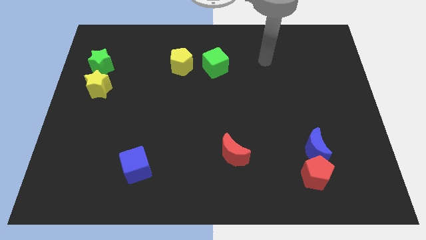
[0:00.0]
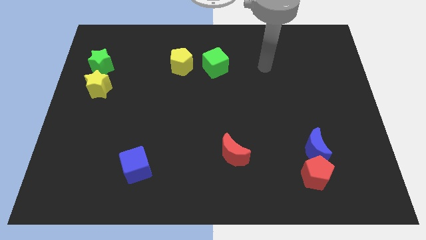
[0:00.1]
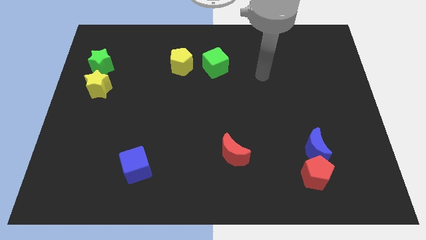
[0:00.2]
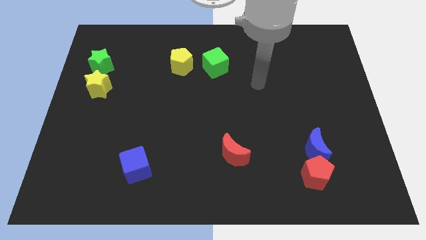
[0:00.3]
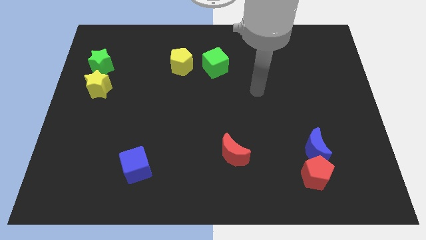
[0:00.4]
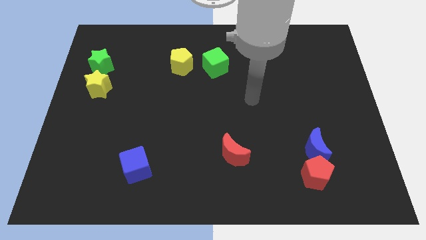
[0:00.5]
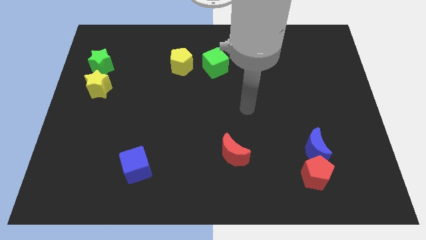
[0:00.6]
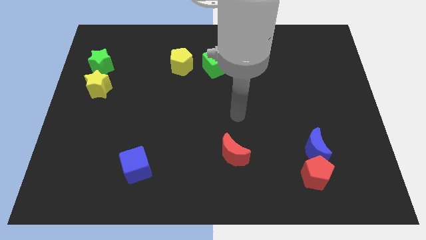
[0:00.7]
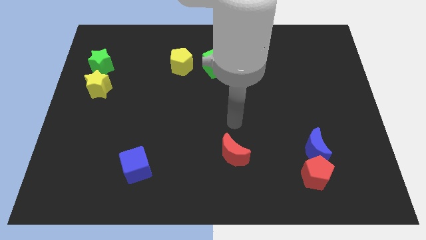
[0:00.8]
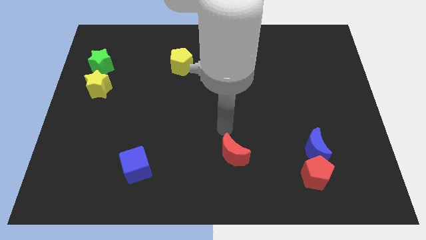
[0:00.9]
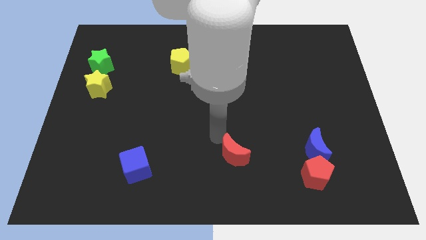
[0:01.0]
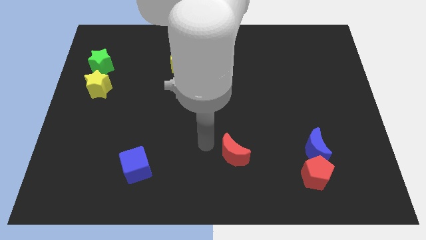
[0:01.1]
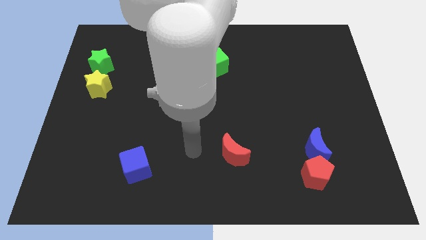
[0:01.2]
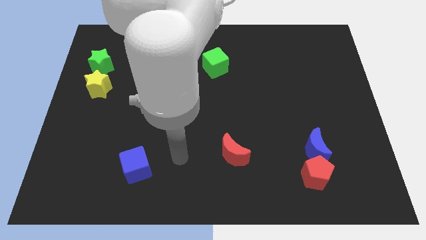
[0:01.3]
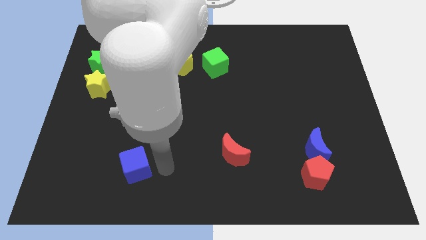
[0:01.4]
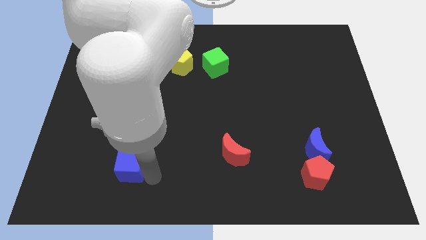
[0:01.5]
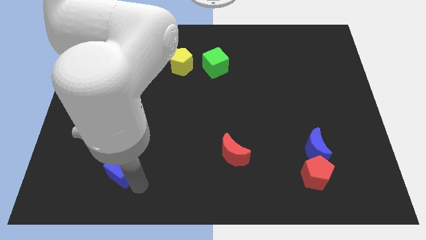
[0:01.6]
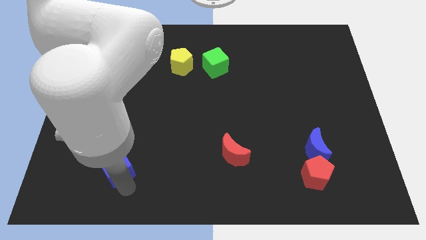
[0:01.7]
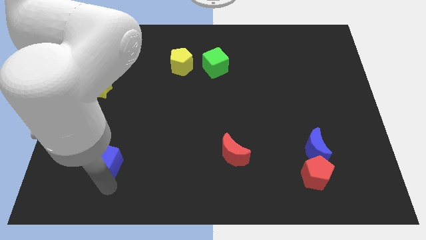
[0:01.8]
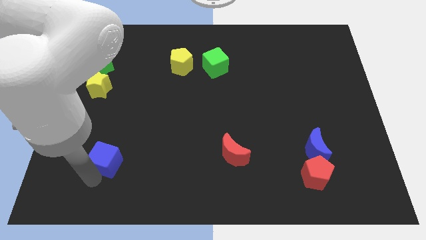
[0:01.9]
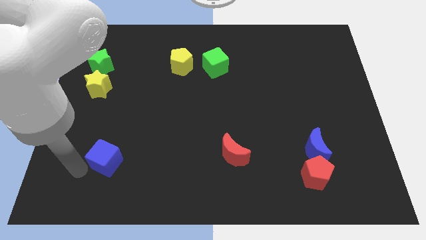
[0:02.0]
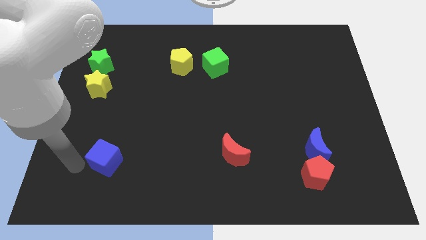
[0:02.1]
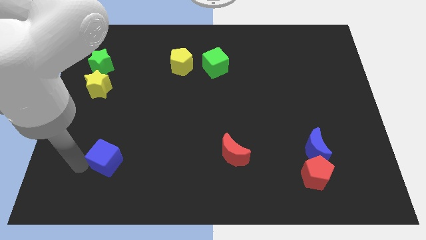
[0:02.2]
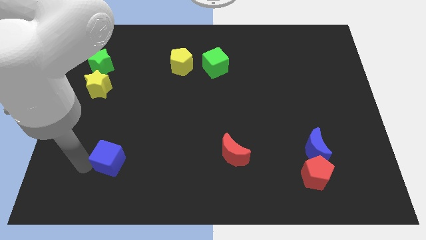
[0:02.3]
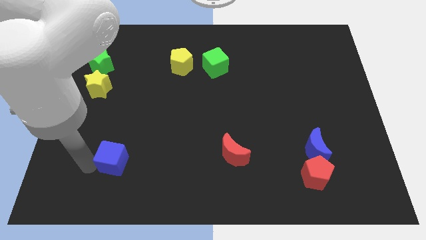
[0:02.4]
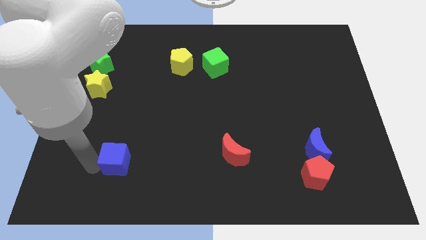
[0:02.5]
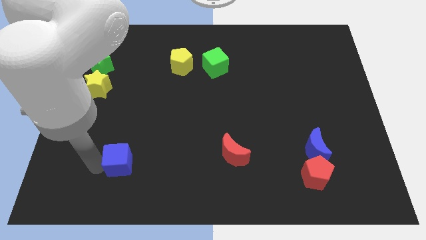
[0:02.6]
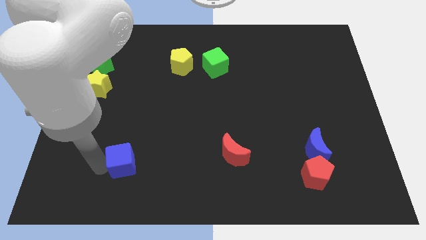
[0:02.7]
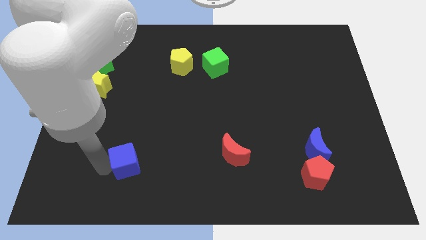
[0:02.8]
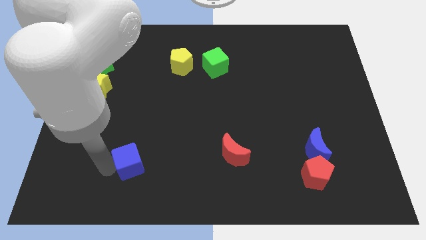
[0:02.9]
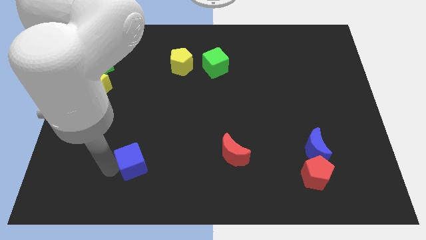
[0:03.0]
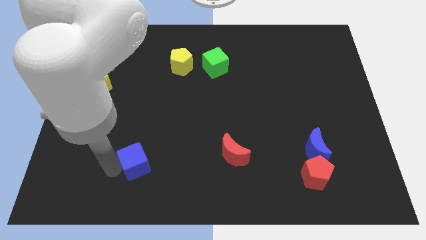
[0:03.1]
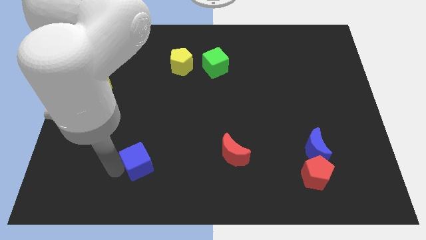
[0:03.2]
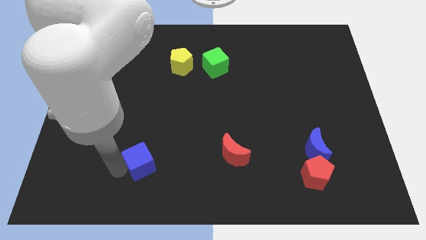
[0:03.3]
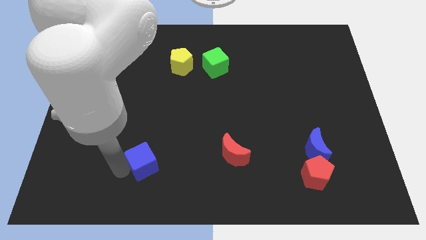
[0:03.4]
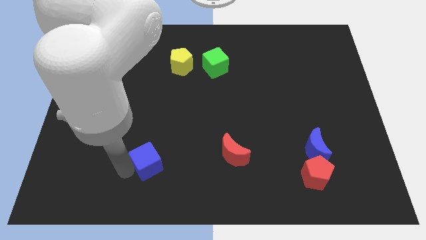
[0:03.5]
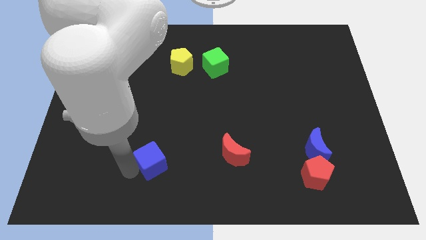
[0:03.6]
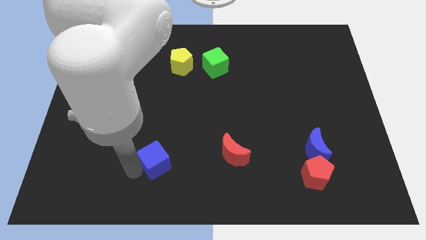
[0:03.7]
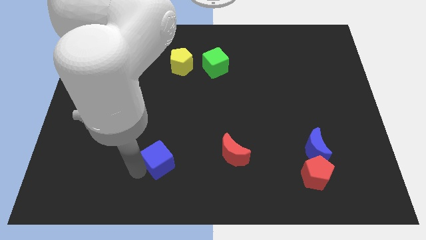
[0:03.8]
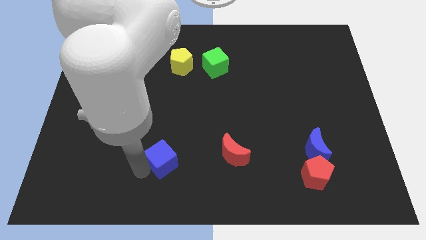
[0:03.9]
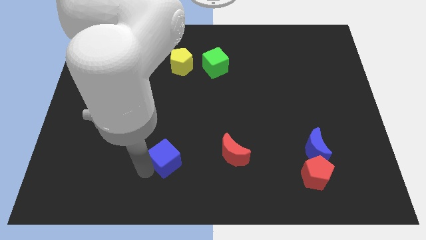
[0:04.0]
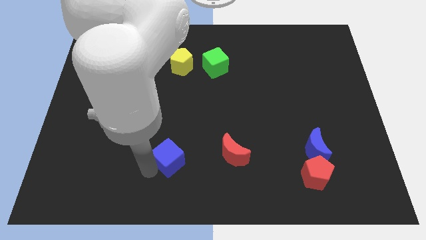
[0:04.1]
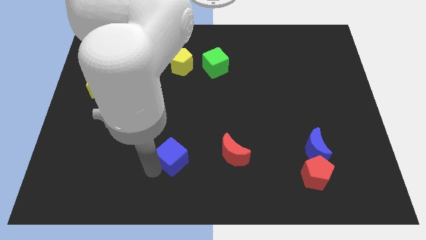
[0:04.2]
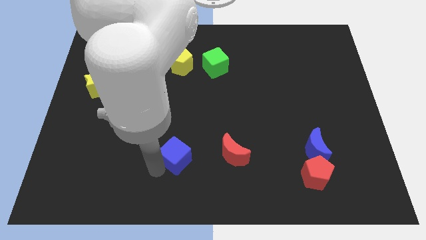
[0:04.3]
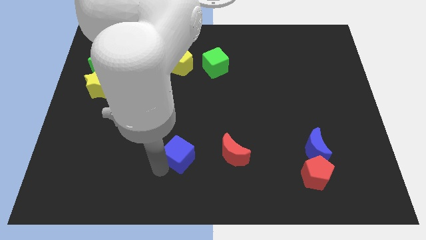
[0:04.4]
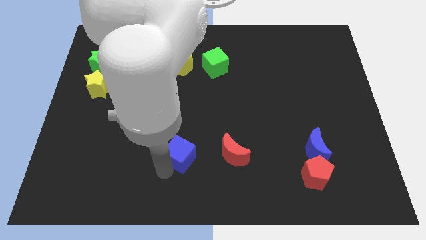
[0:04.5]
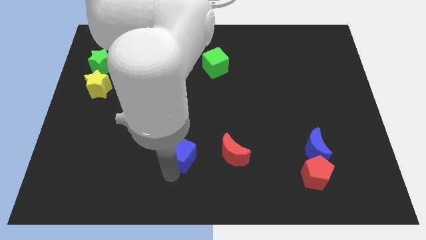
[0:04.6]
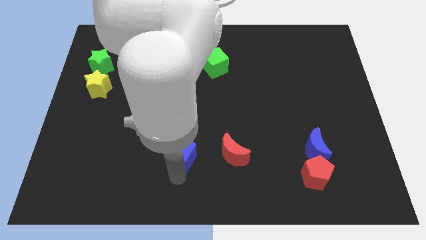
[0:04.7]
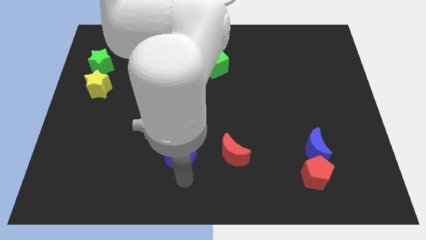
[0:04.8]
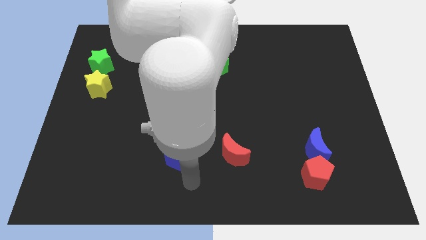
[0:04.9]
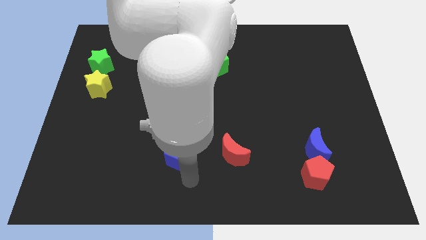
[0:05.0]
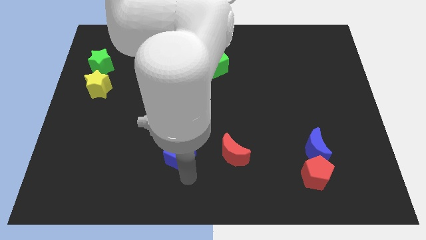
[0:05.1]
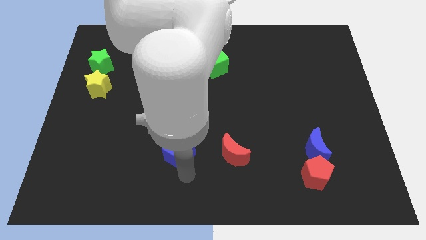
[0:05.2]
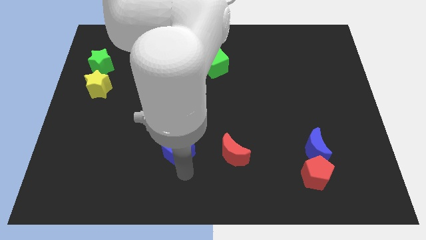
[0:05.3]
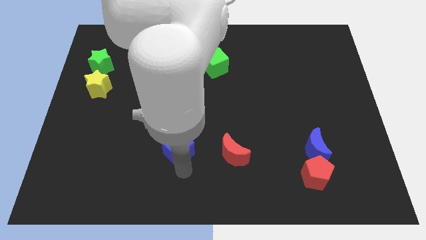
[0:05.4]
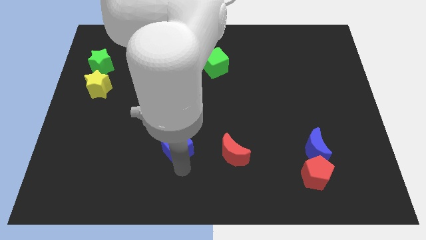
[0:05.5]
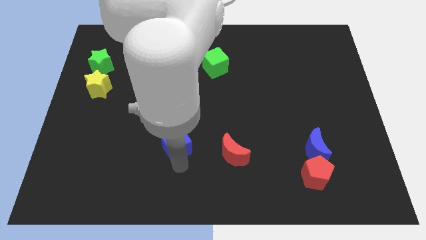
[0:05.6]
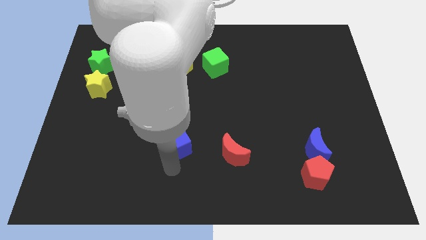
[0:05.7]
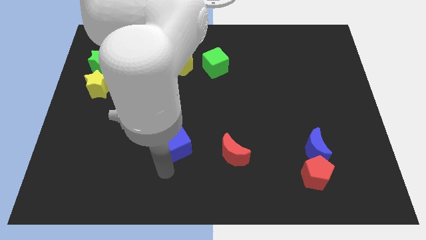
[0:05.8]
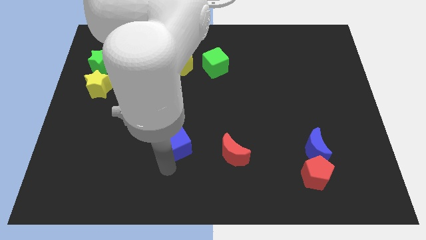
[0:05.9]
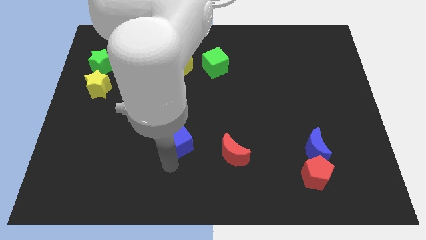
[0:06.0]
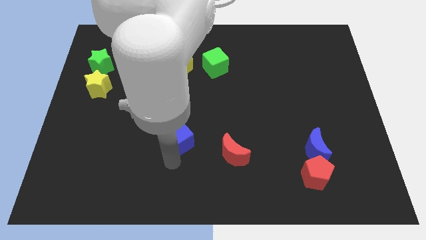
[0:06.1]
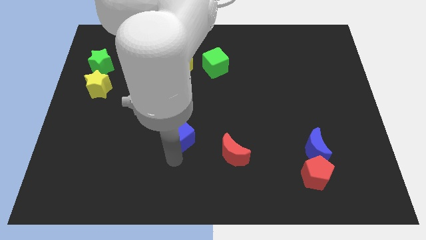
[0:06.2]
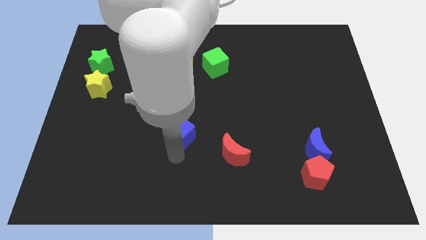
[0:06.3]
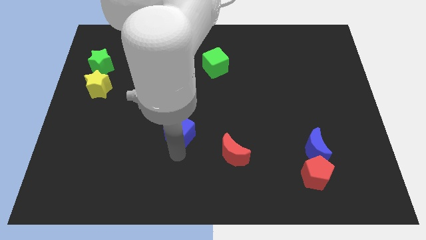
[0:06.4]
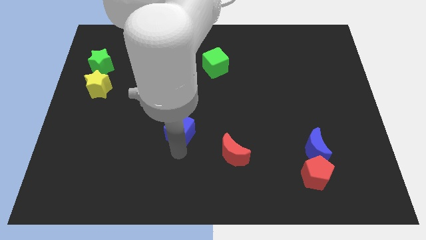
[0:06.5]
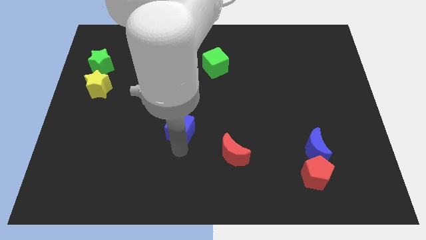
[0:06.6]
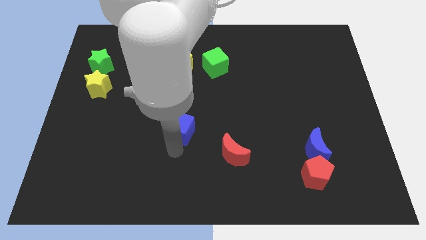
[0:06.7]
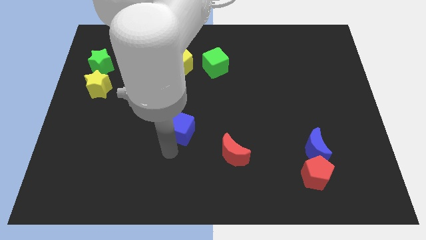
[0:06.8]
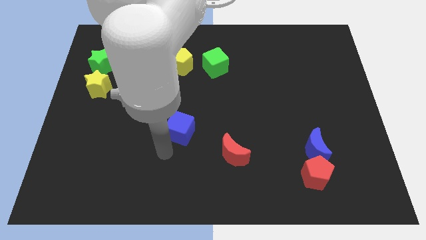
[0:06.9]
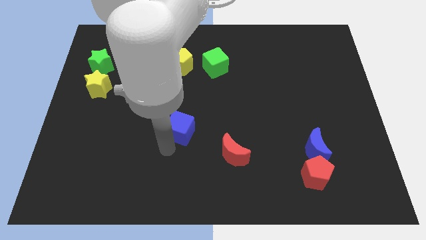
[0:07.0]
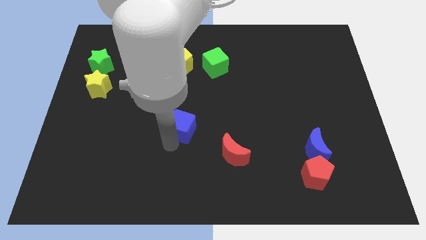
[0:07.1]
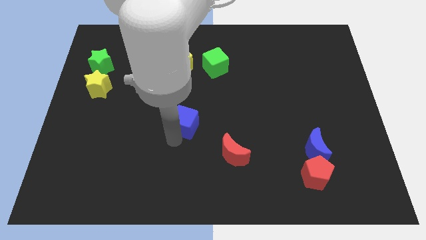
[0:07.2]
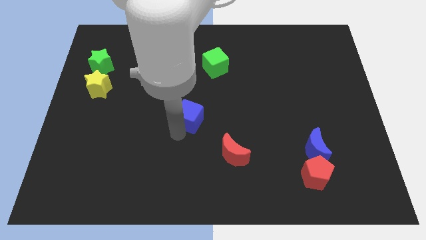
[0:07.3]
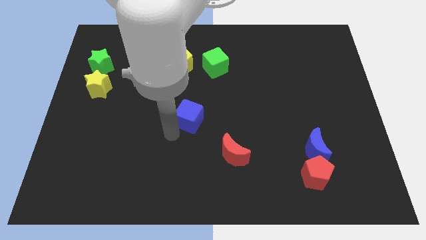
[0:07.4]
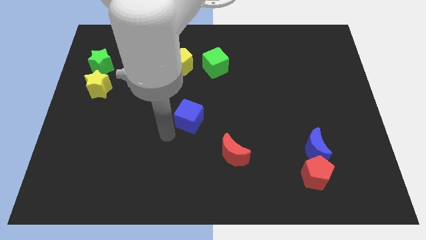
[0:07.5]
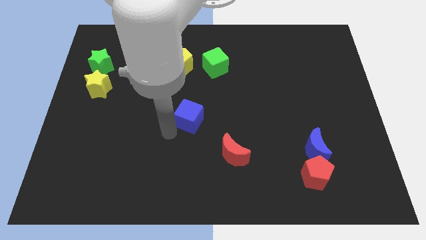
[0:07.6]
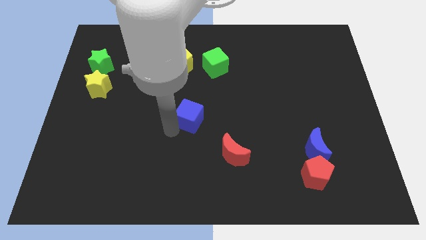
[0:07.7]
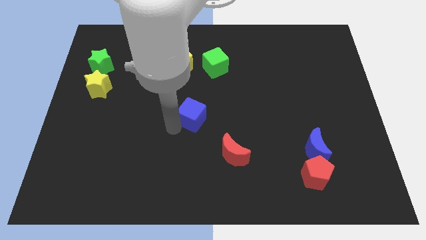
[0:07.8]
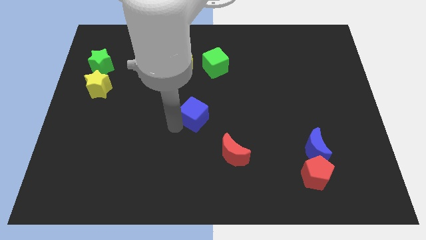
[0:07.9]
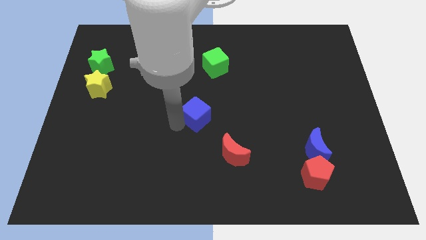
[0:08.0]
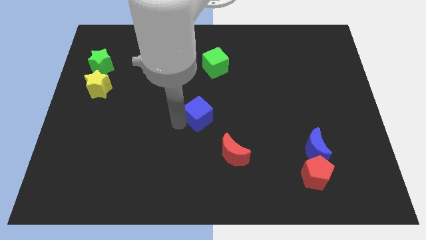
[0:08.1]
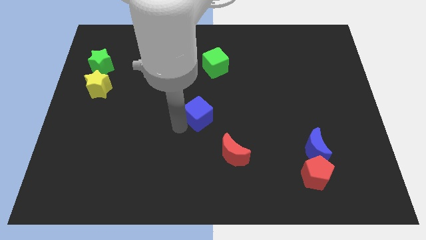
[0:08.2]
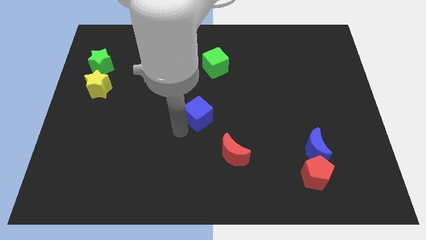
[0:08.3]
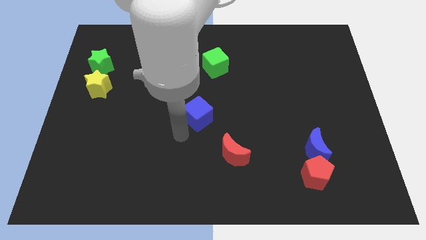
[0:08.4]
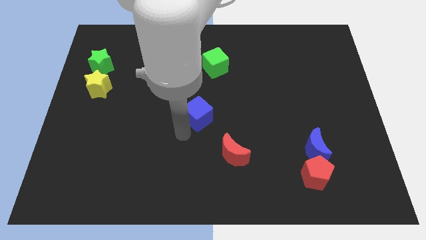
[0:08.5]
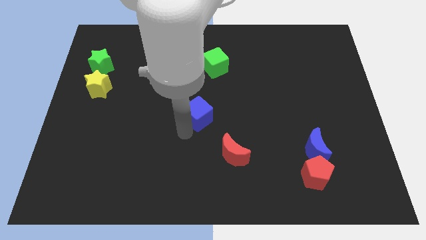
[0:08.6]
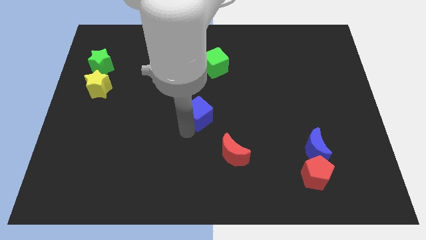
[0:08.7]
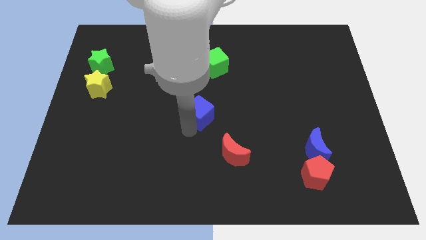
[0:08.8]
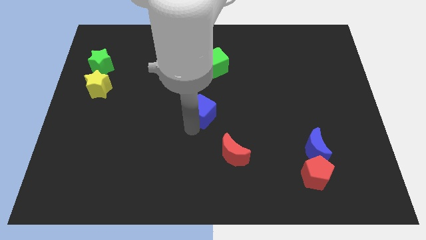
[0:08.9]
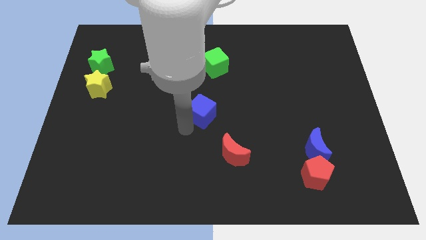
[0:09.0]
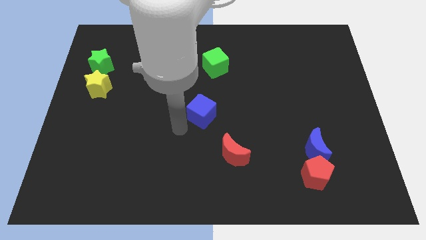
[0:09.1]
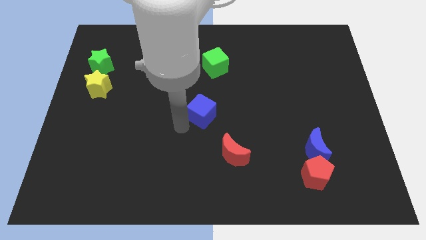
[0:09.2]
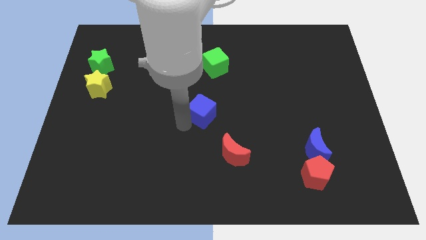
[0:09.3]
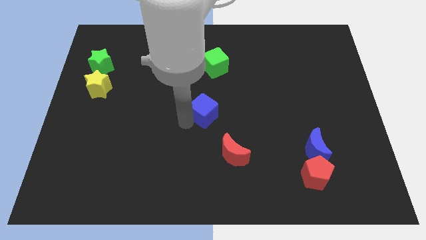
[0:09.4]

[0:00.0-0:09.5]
push the blue cube up and right
